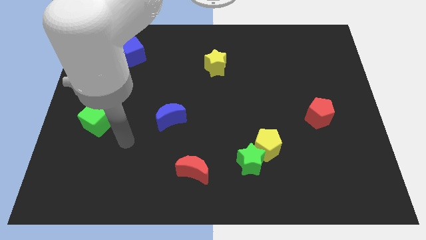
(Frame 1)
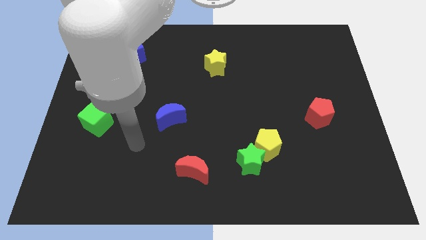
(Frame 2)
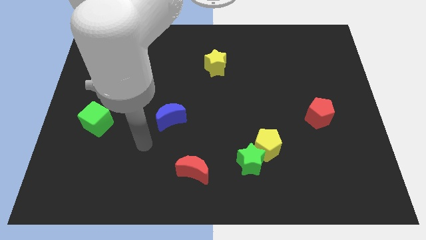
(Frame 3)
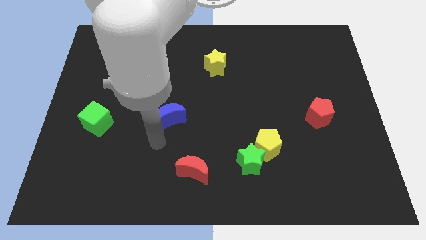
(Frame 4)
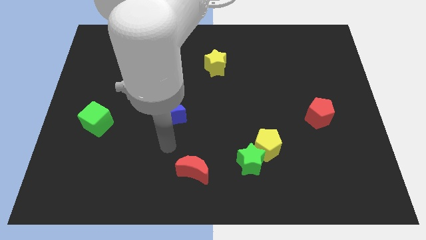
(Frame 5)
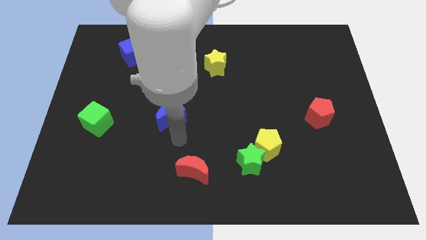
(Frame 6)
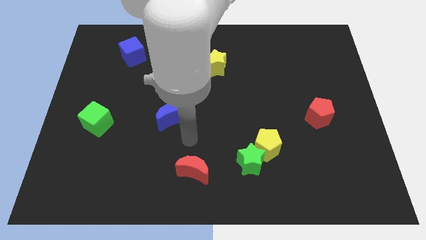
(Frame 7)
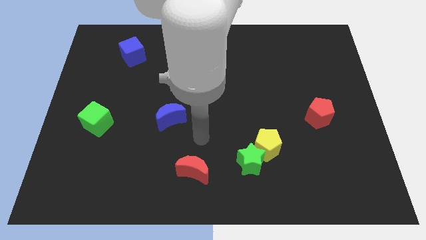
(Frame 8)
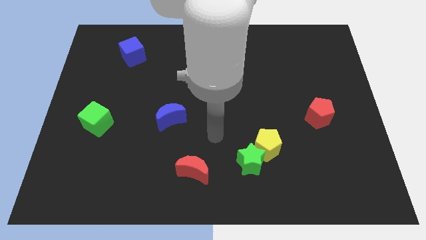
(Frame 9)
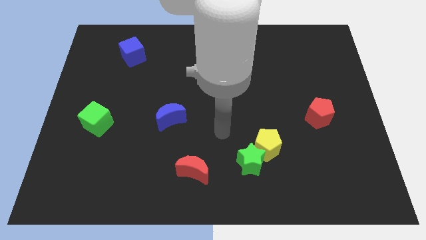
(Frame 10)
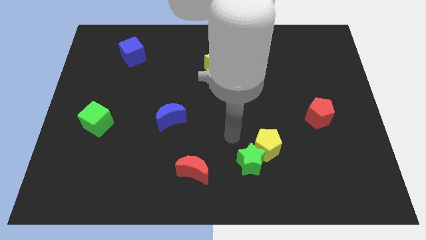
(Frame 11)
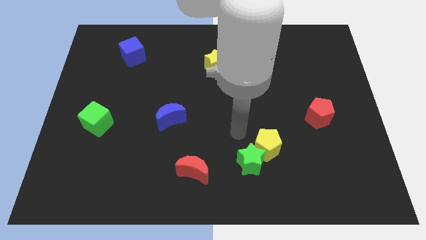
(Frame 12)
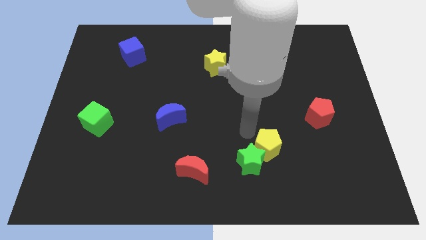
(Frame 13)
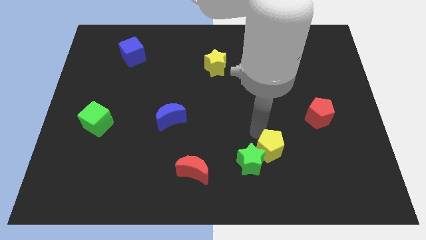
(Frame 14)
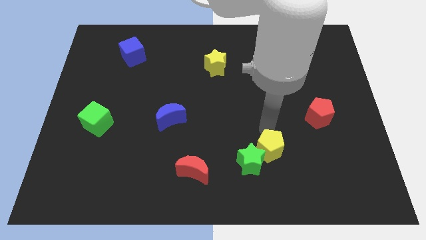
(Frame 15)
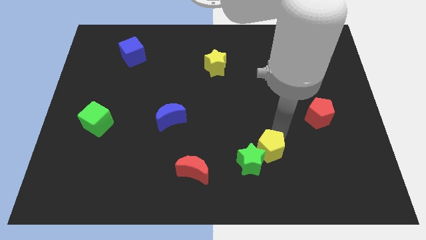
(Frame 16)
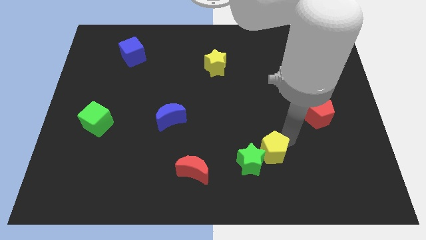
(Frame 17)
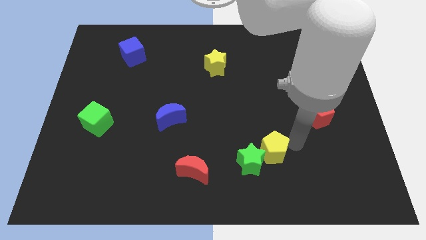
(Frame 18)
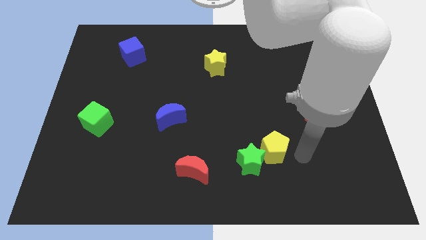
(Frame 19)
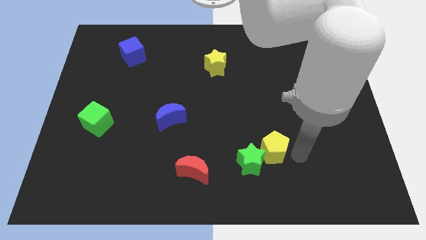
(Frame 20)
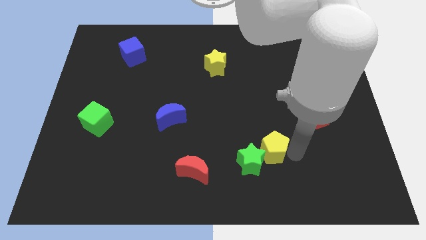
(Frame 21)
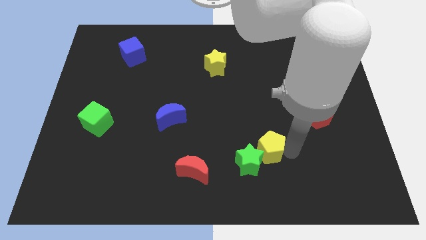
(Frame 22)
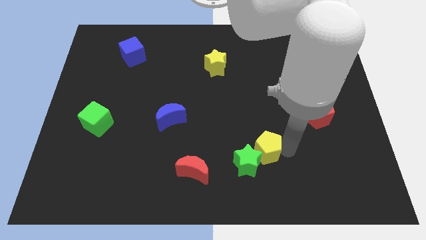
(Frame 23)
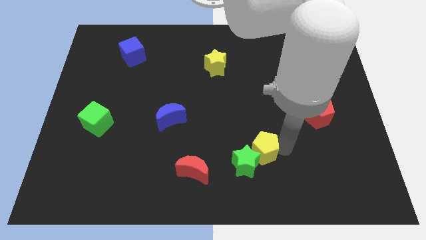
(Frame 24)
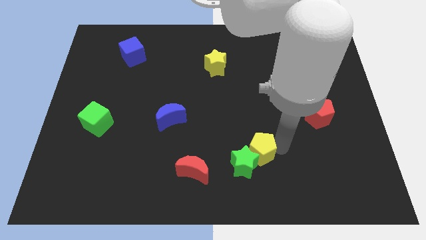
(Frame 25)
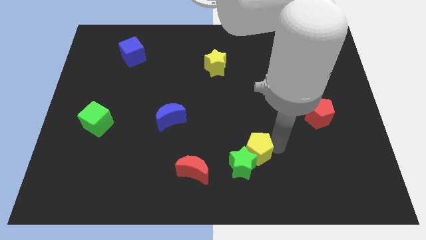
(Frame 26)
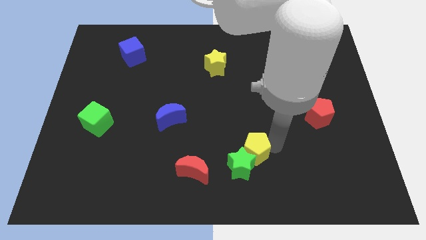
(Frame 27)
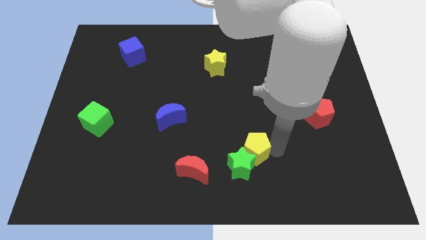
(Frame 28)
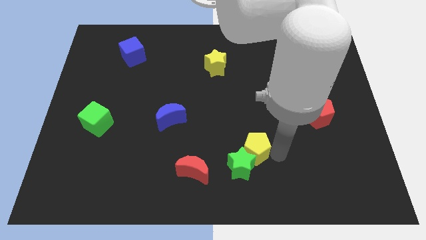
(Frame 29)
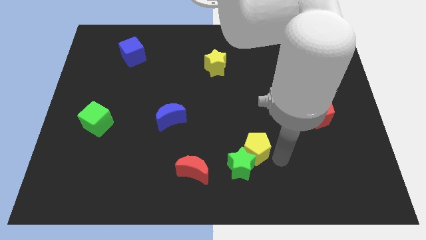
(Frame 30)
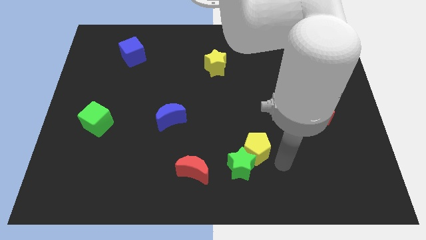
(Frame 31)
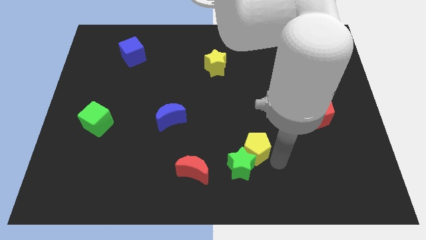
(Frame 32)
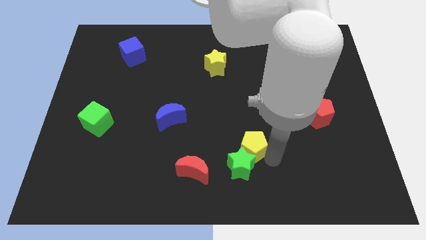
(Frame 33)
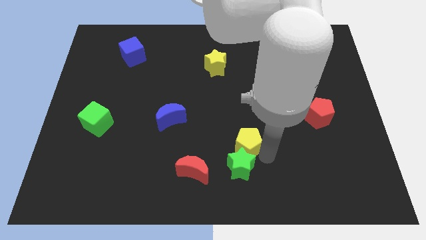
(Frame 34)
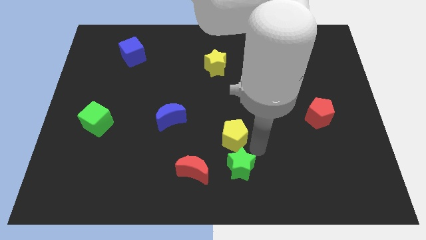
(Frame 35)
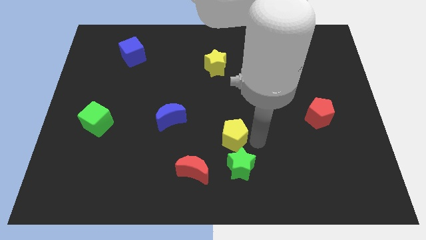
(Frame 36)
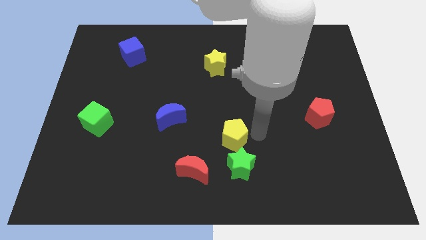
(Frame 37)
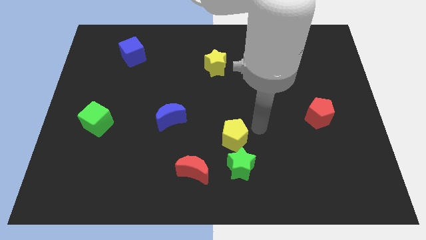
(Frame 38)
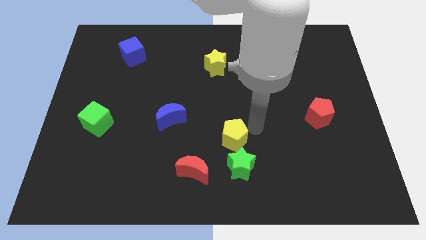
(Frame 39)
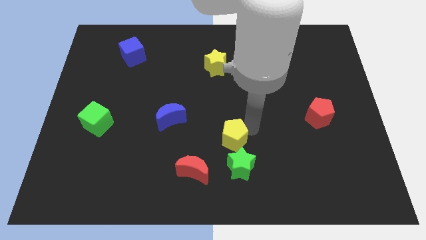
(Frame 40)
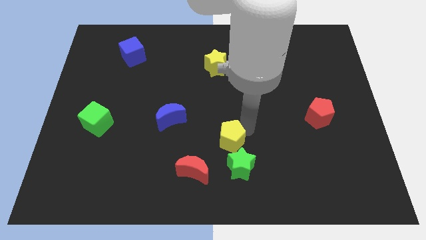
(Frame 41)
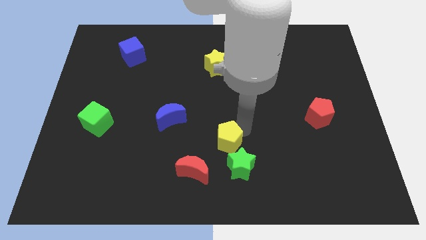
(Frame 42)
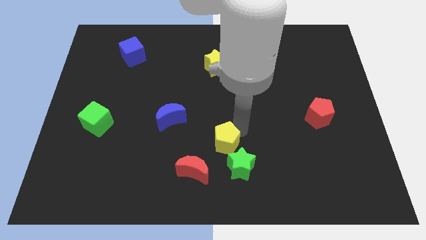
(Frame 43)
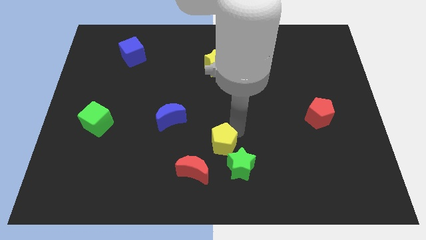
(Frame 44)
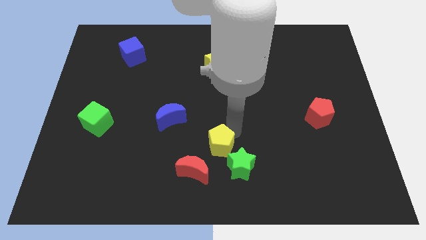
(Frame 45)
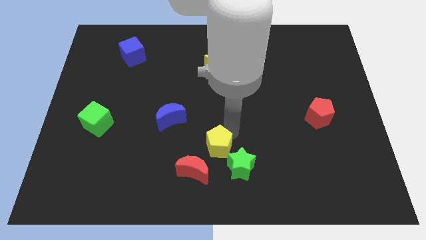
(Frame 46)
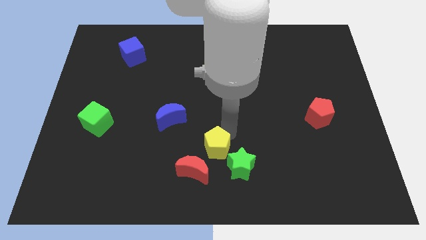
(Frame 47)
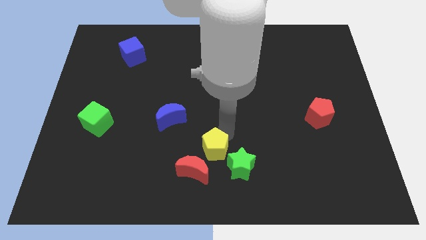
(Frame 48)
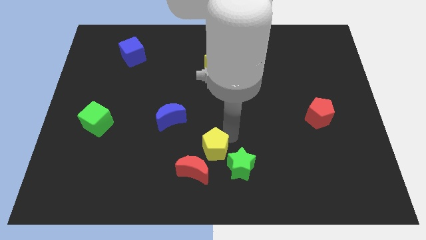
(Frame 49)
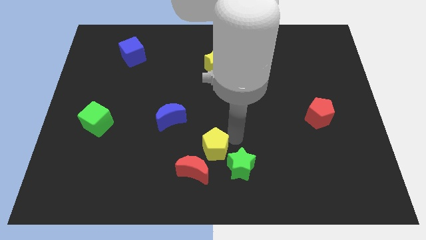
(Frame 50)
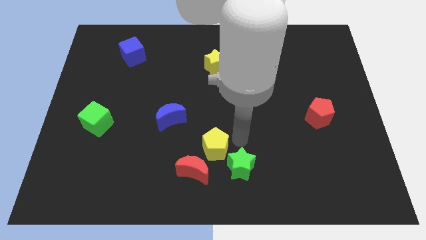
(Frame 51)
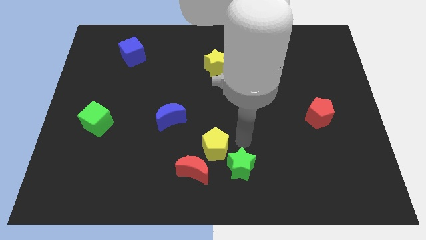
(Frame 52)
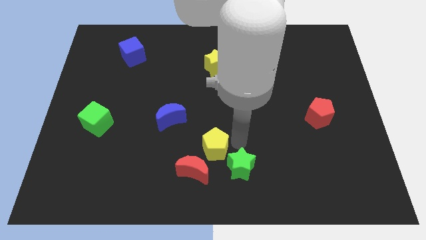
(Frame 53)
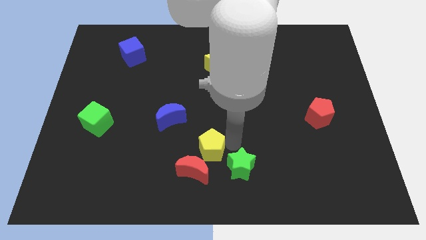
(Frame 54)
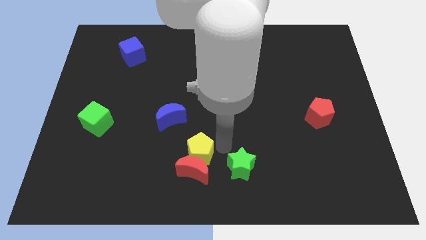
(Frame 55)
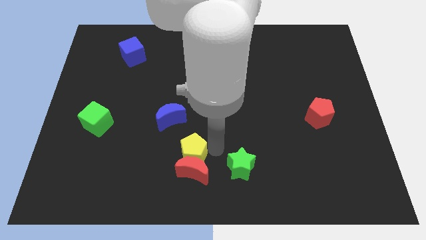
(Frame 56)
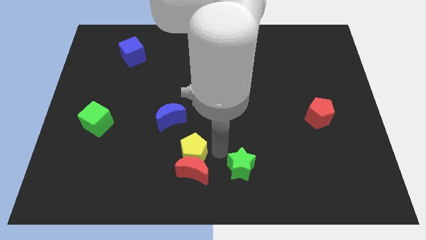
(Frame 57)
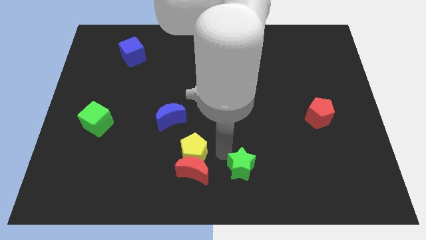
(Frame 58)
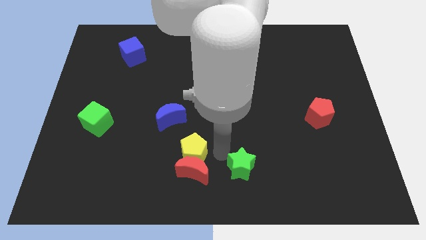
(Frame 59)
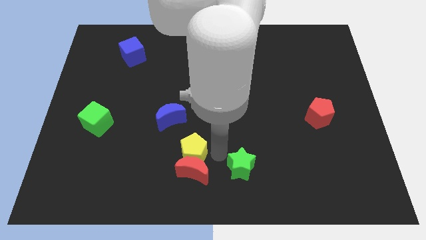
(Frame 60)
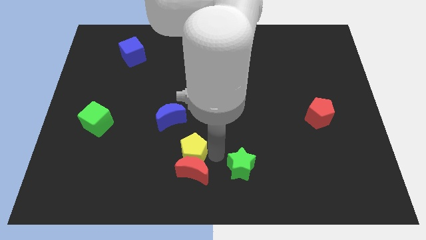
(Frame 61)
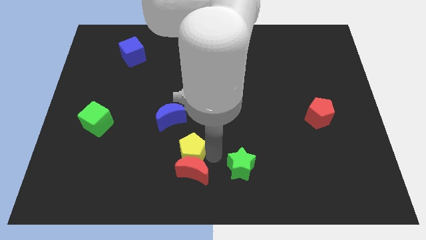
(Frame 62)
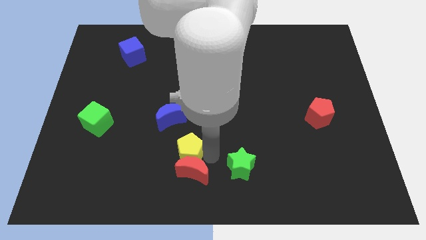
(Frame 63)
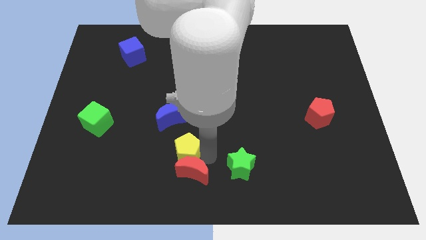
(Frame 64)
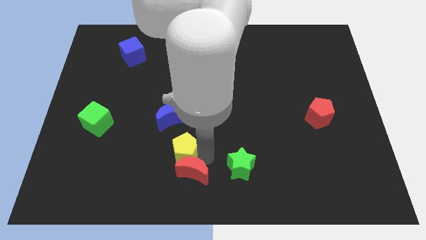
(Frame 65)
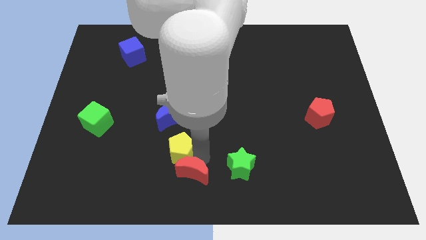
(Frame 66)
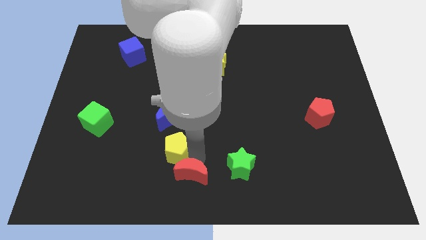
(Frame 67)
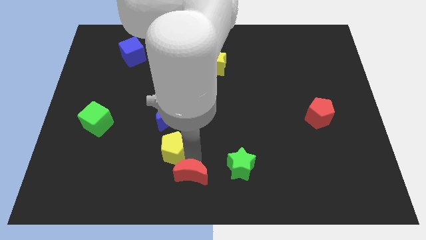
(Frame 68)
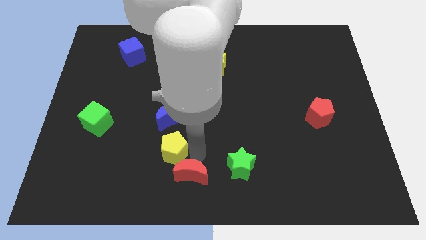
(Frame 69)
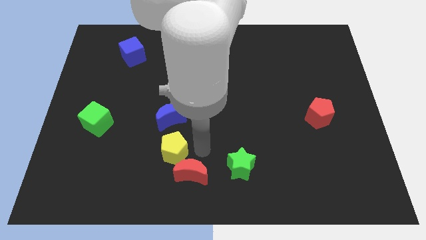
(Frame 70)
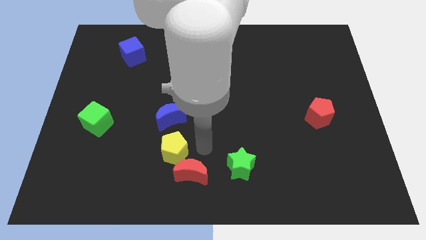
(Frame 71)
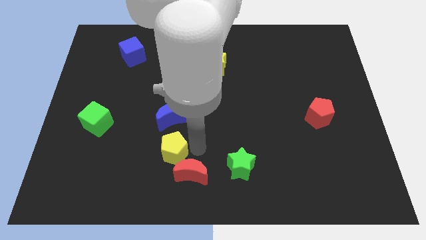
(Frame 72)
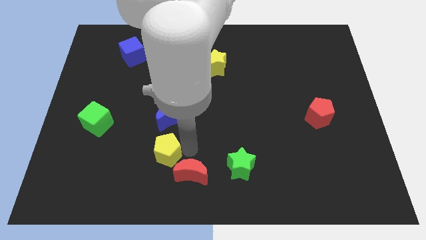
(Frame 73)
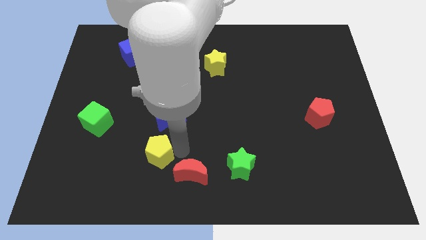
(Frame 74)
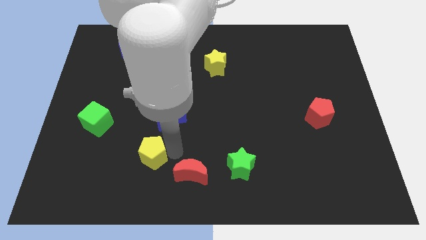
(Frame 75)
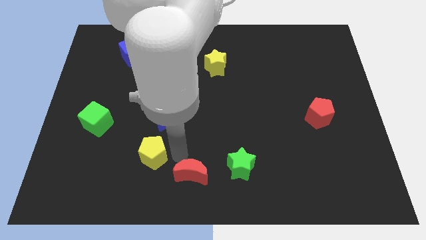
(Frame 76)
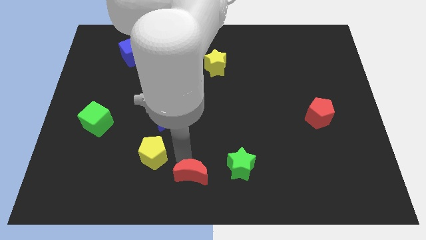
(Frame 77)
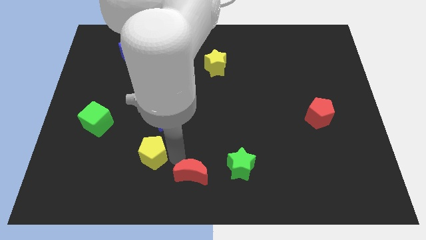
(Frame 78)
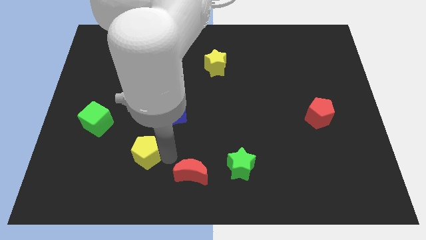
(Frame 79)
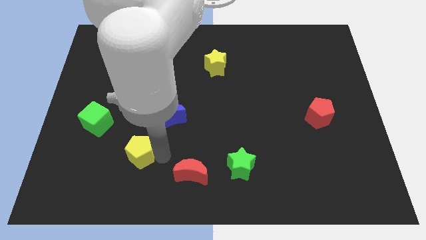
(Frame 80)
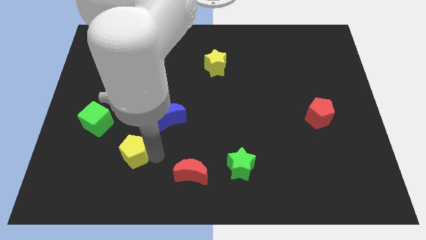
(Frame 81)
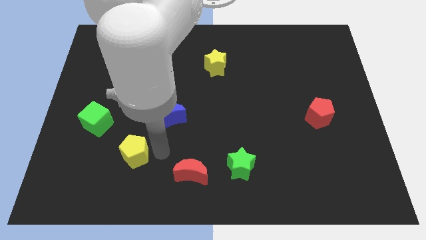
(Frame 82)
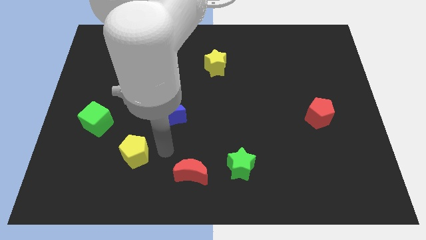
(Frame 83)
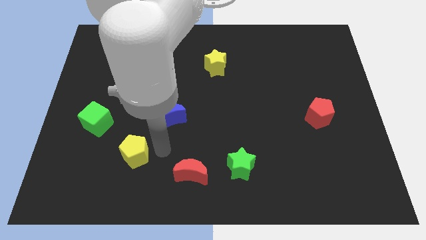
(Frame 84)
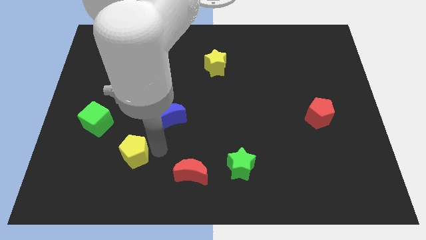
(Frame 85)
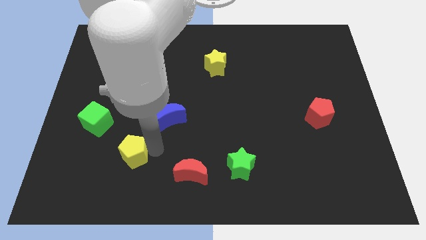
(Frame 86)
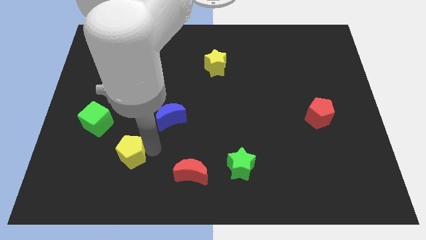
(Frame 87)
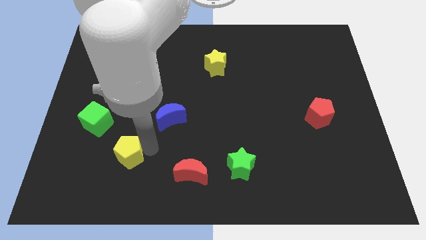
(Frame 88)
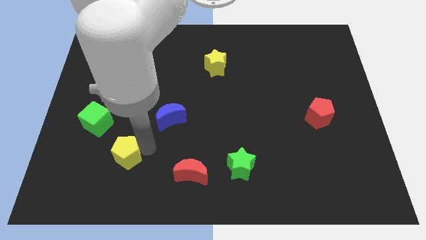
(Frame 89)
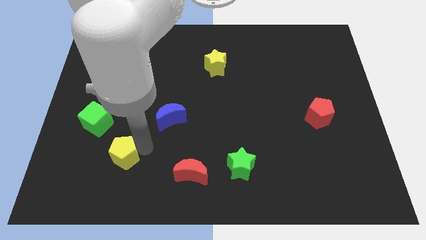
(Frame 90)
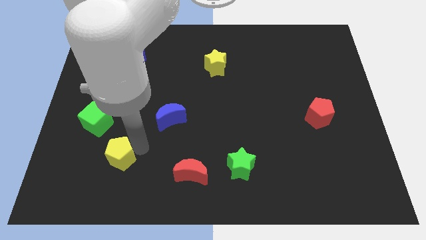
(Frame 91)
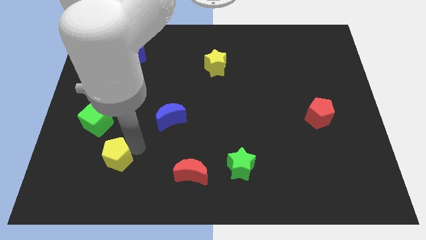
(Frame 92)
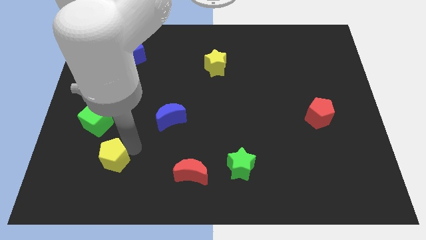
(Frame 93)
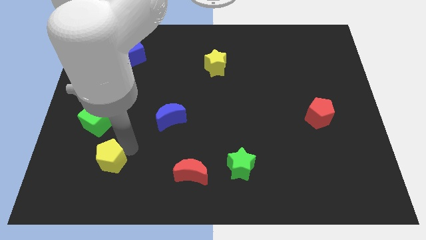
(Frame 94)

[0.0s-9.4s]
slide the yellow pentagon below the green cube
